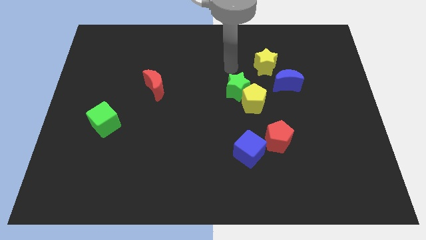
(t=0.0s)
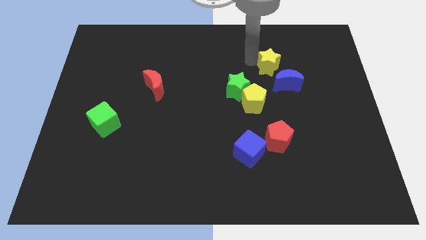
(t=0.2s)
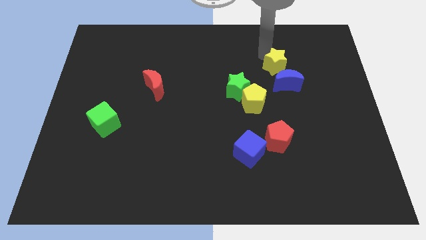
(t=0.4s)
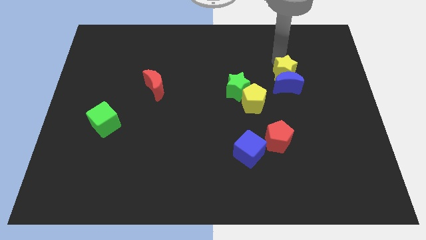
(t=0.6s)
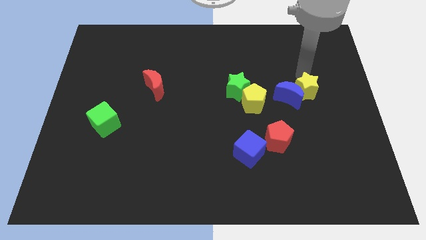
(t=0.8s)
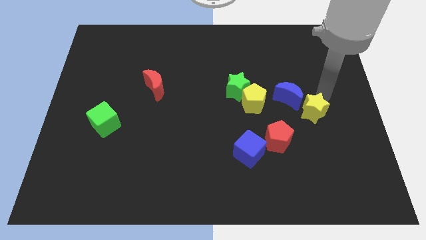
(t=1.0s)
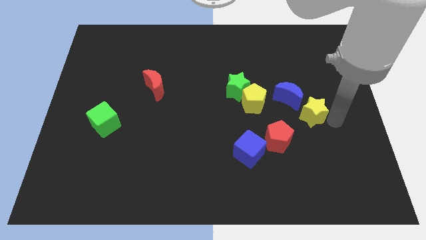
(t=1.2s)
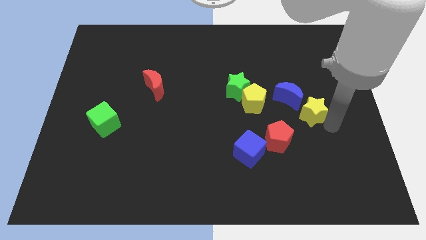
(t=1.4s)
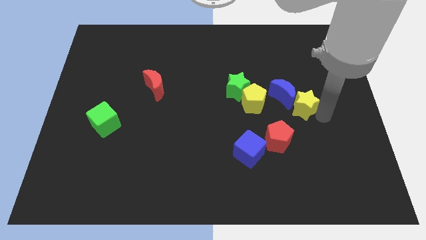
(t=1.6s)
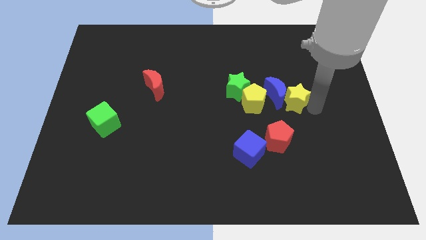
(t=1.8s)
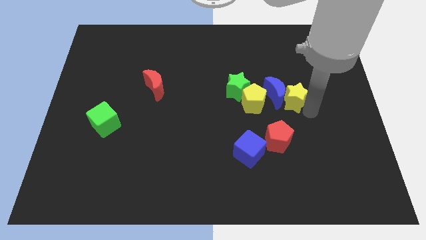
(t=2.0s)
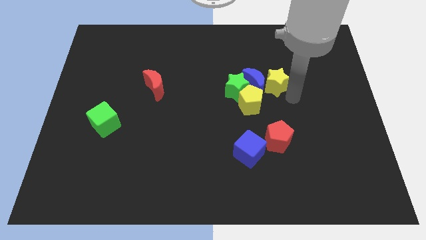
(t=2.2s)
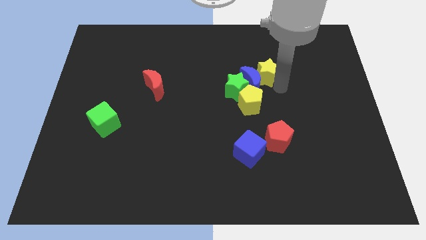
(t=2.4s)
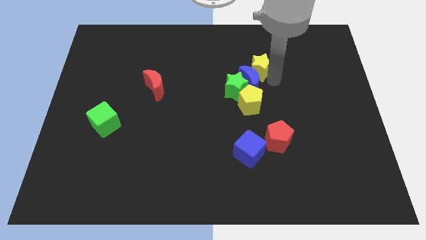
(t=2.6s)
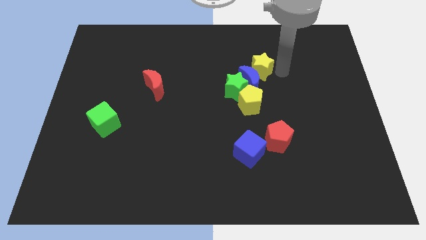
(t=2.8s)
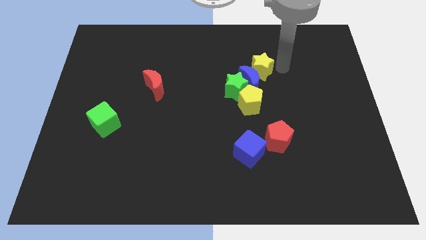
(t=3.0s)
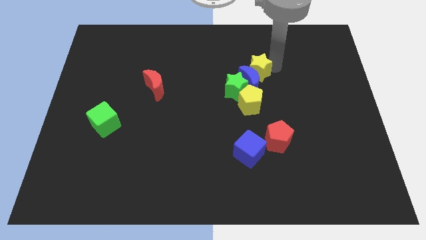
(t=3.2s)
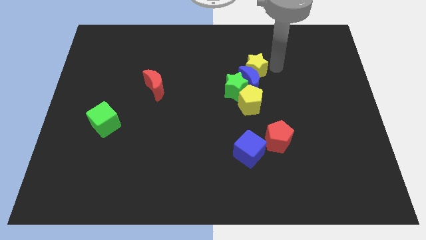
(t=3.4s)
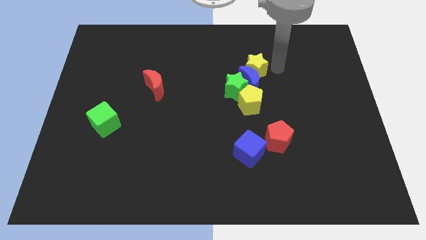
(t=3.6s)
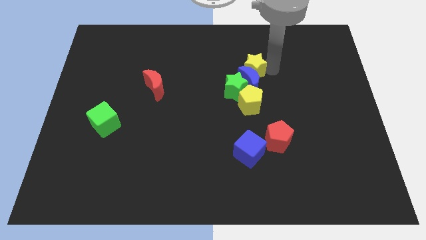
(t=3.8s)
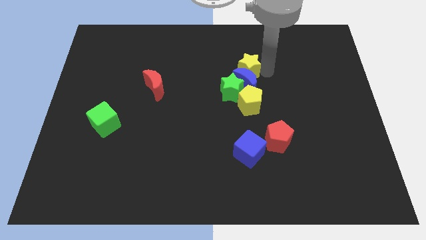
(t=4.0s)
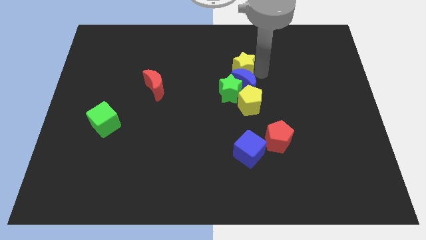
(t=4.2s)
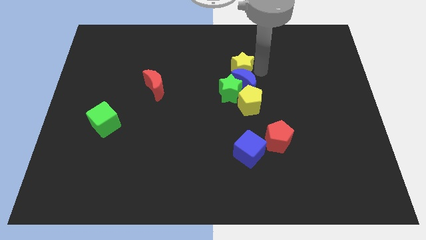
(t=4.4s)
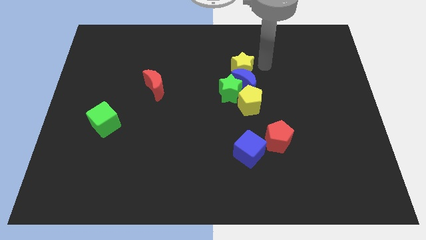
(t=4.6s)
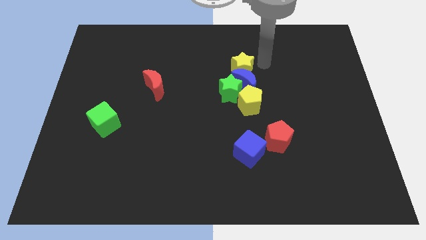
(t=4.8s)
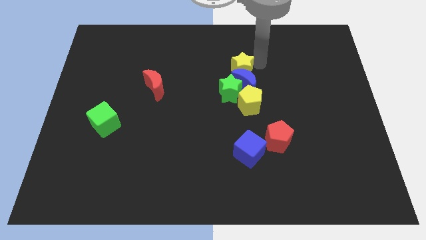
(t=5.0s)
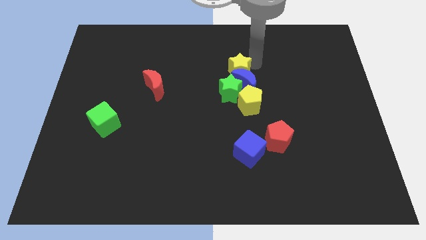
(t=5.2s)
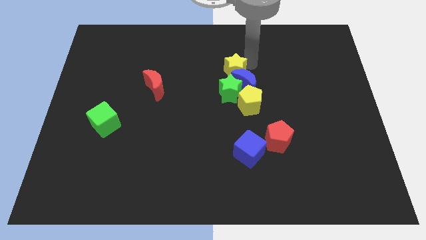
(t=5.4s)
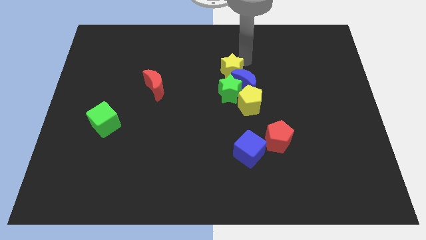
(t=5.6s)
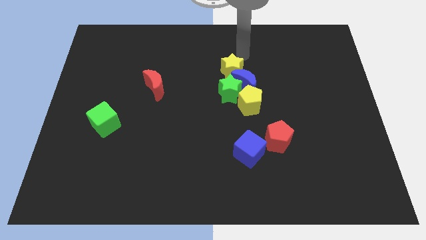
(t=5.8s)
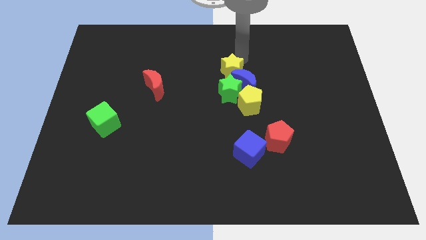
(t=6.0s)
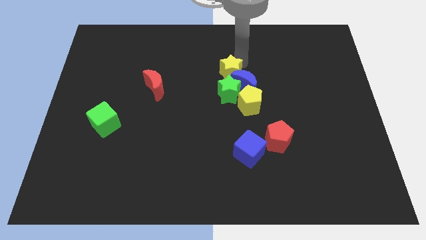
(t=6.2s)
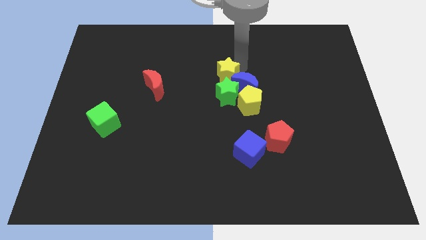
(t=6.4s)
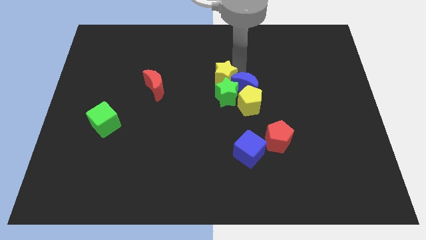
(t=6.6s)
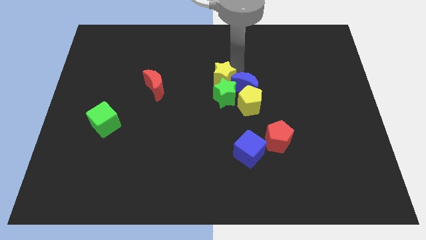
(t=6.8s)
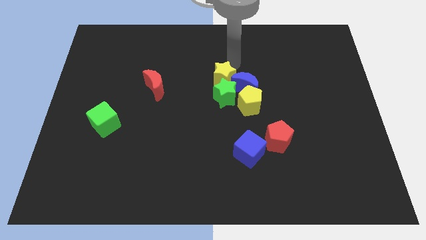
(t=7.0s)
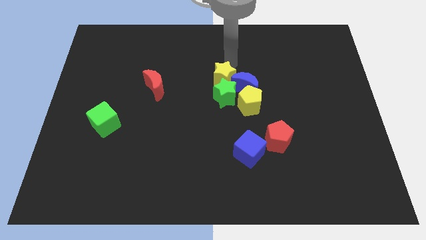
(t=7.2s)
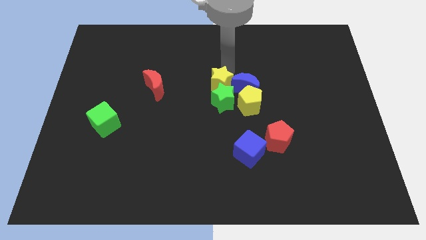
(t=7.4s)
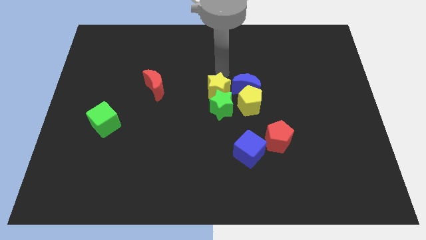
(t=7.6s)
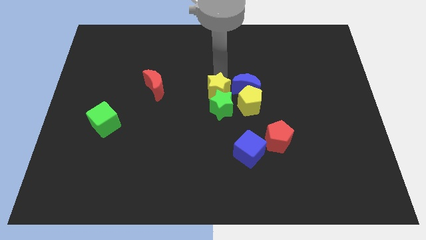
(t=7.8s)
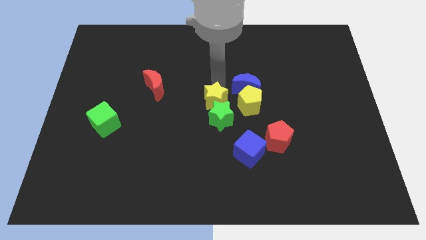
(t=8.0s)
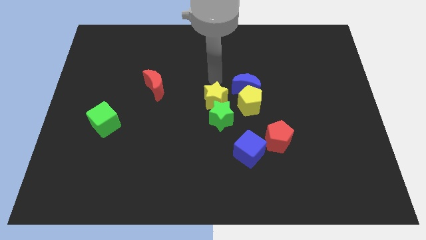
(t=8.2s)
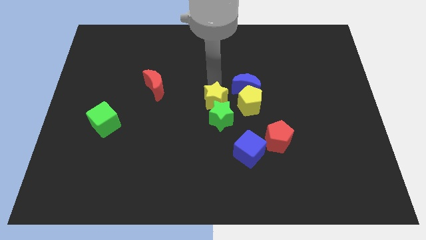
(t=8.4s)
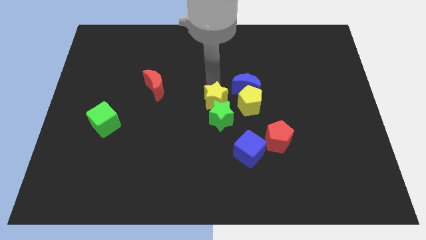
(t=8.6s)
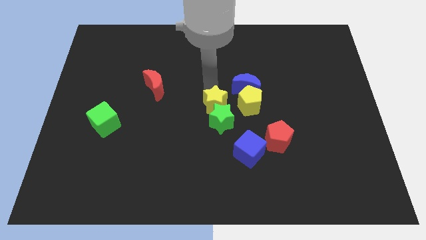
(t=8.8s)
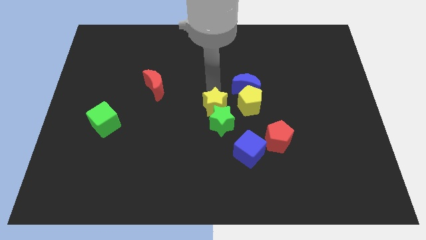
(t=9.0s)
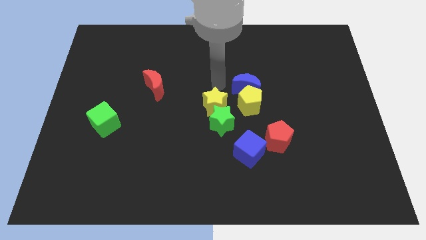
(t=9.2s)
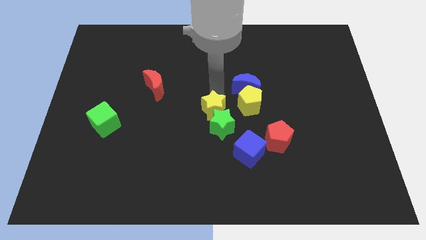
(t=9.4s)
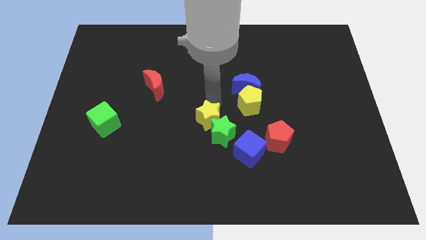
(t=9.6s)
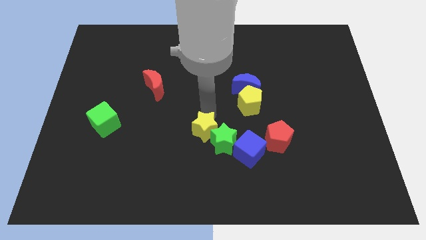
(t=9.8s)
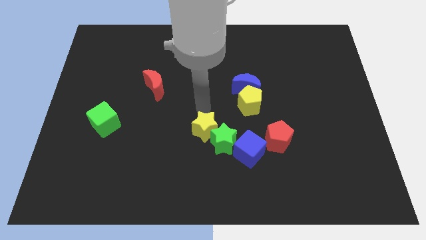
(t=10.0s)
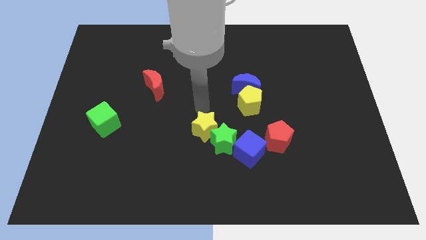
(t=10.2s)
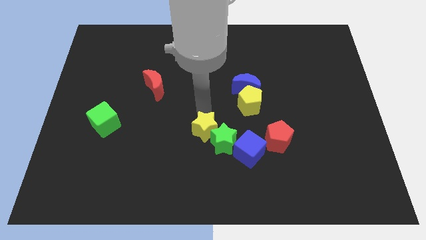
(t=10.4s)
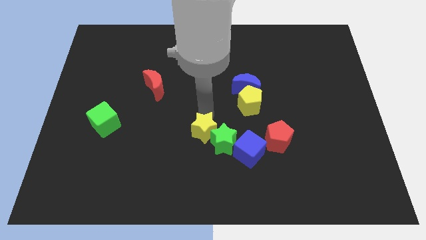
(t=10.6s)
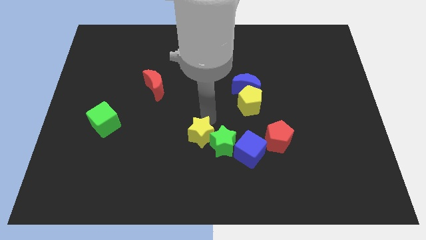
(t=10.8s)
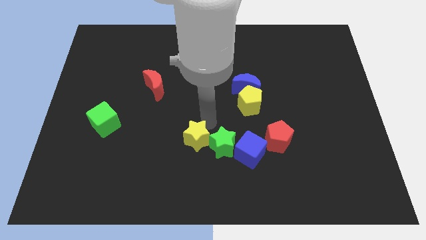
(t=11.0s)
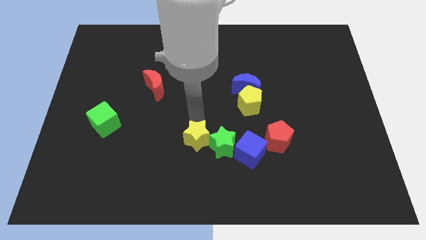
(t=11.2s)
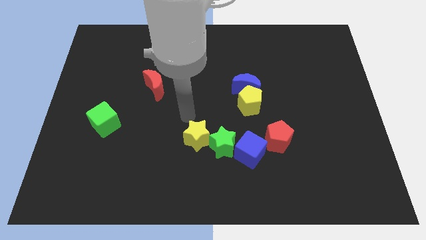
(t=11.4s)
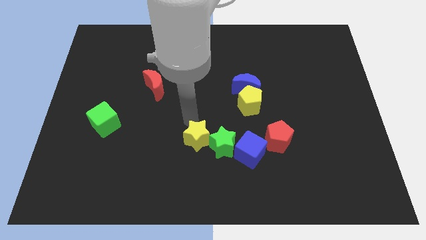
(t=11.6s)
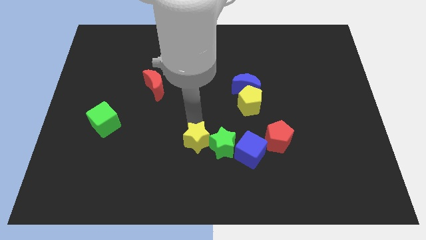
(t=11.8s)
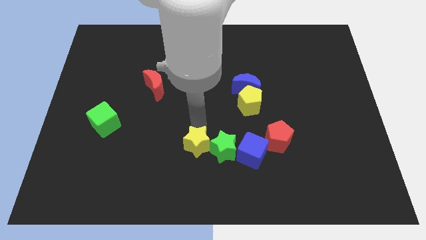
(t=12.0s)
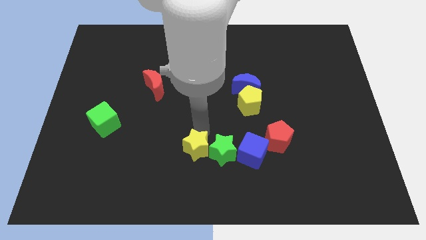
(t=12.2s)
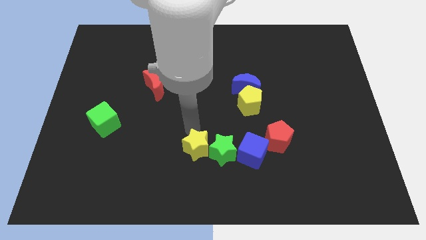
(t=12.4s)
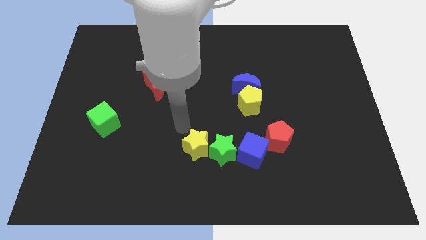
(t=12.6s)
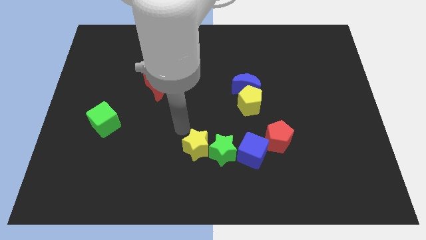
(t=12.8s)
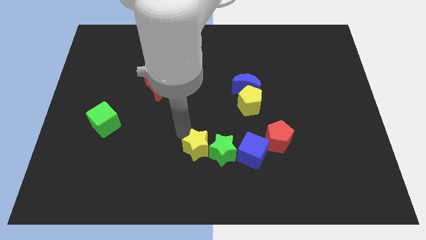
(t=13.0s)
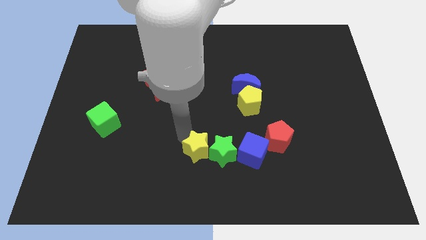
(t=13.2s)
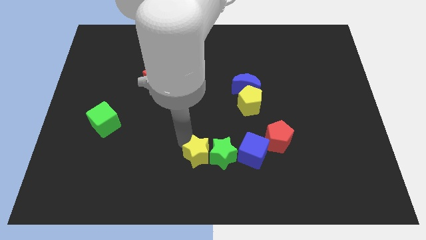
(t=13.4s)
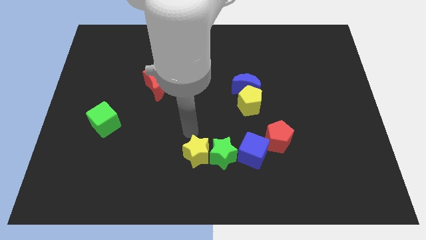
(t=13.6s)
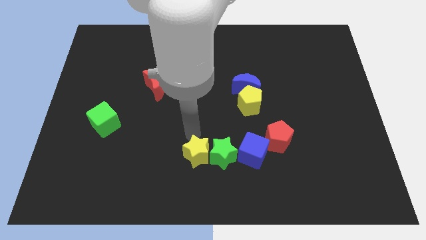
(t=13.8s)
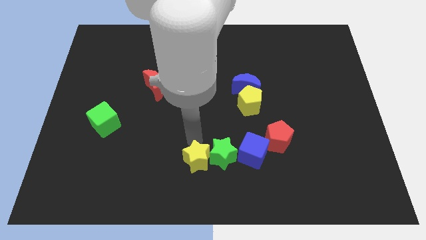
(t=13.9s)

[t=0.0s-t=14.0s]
move the yellow star to the bottom side

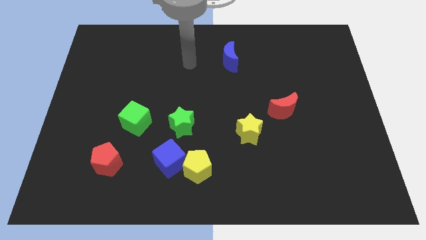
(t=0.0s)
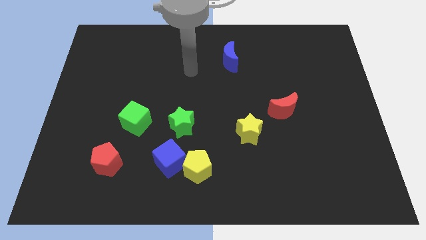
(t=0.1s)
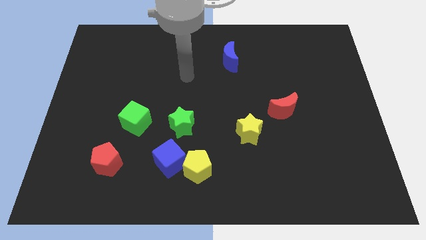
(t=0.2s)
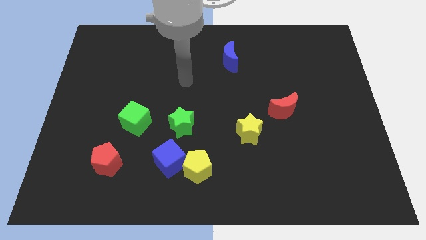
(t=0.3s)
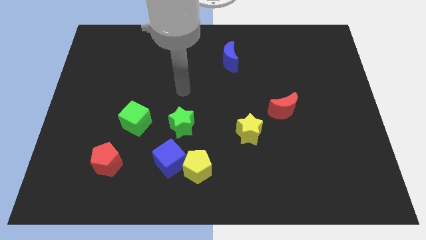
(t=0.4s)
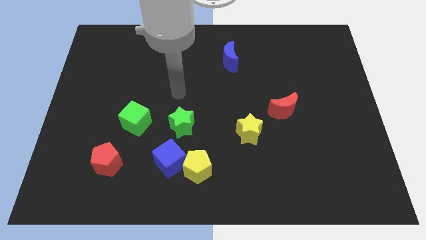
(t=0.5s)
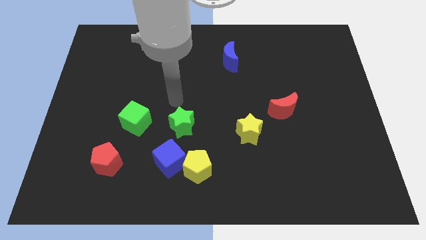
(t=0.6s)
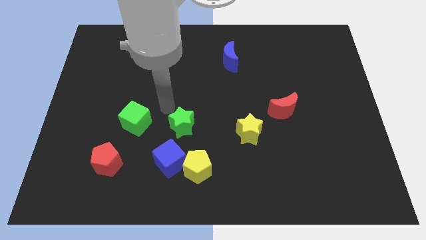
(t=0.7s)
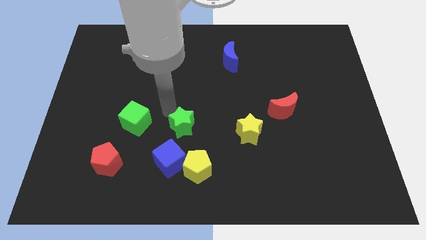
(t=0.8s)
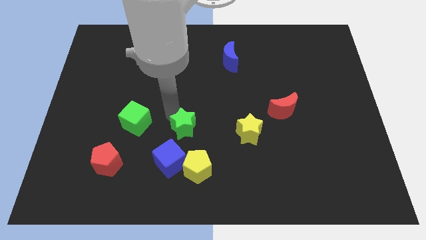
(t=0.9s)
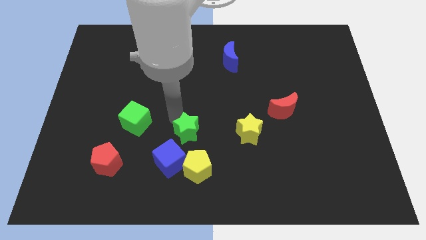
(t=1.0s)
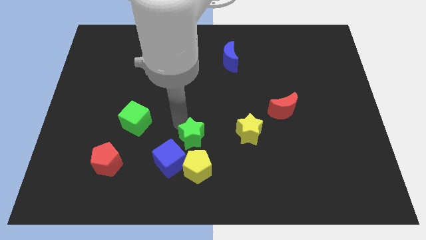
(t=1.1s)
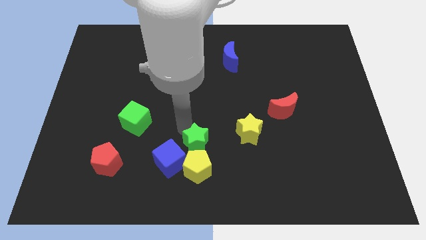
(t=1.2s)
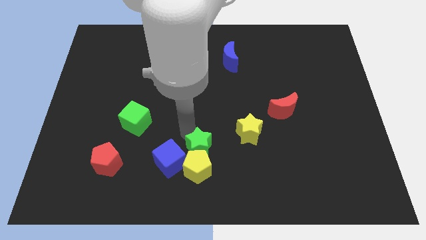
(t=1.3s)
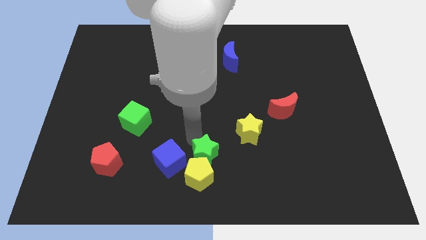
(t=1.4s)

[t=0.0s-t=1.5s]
push the green star to the bottom side
